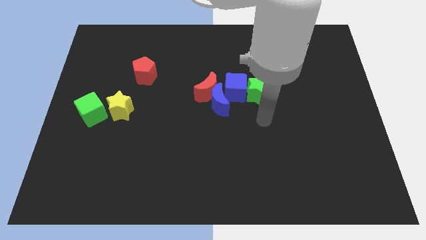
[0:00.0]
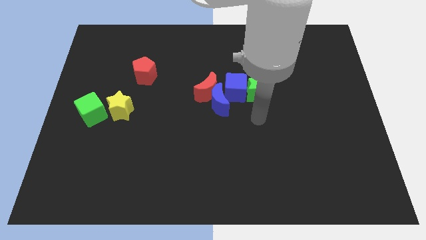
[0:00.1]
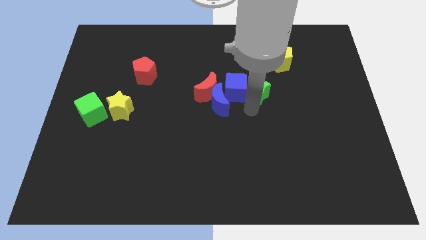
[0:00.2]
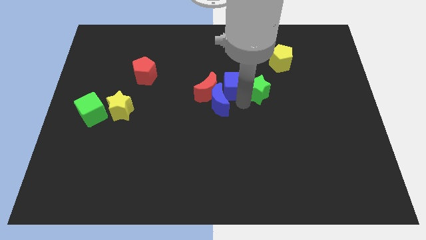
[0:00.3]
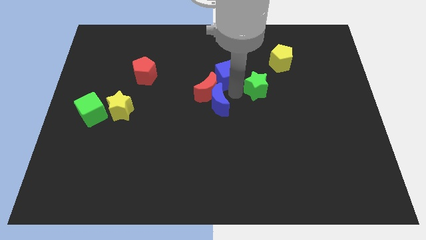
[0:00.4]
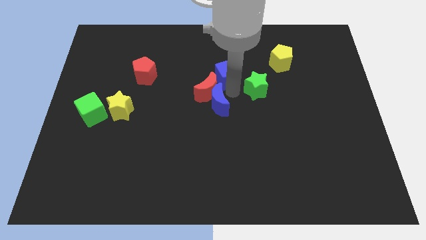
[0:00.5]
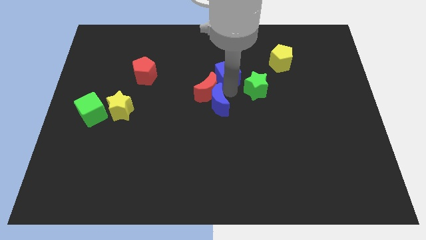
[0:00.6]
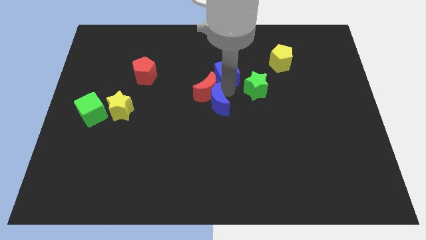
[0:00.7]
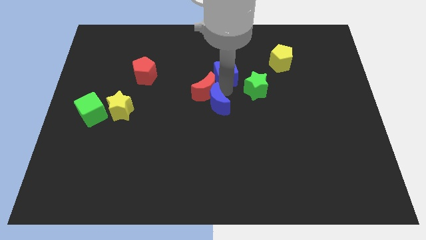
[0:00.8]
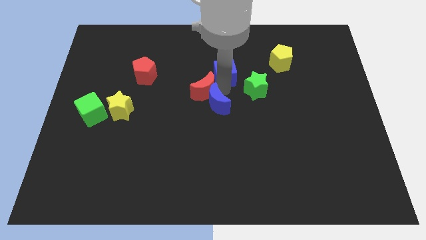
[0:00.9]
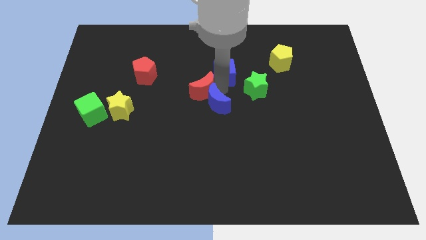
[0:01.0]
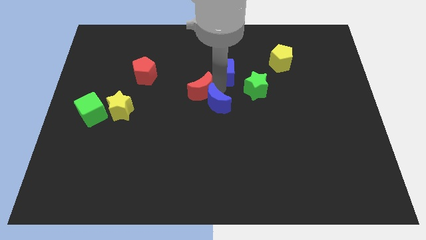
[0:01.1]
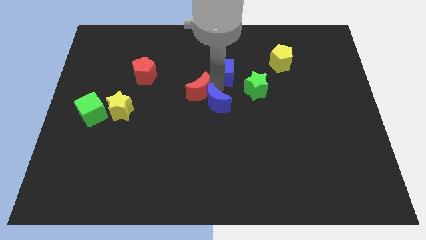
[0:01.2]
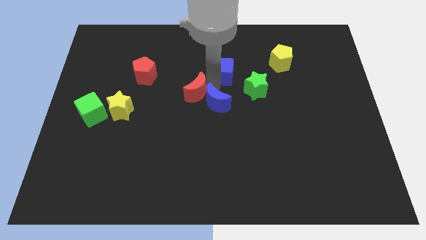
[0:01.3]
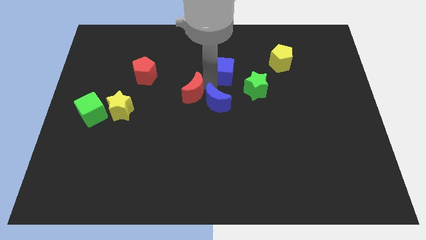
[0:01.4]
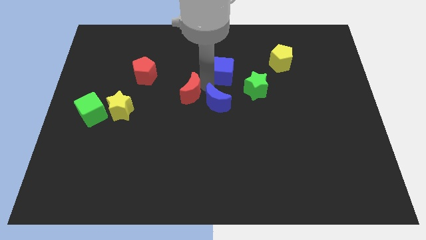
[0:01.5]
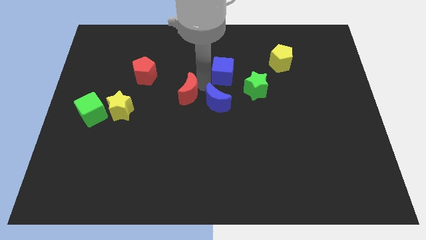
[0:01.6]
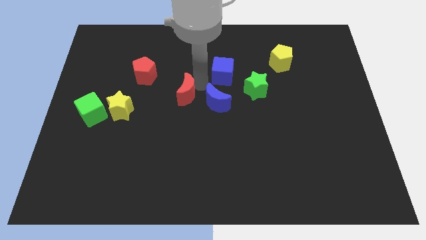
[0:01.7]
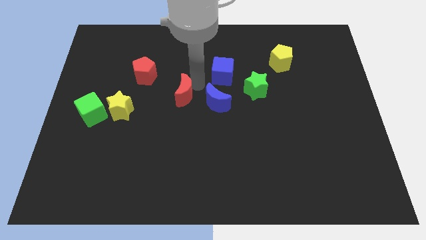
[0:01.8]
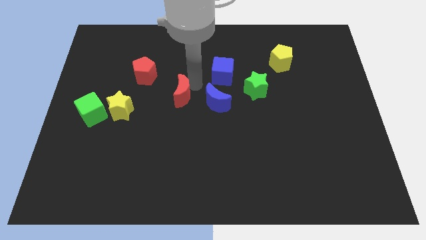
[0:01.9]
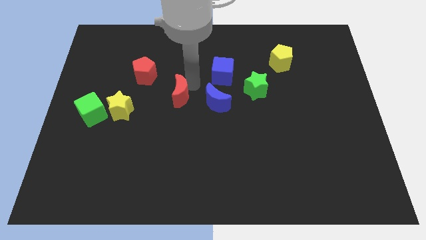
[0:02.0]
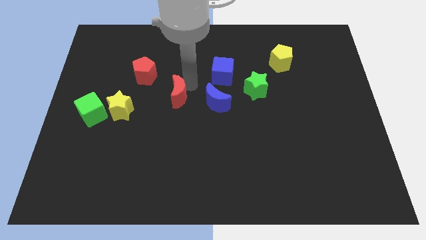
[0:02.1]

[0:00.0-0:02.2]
move the red moon away from the blue moon and blue cube

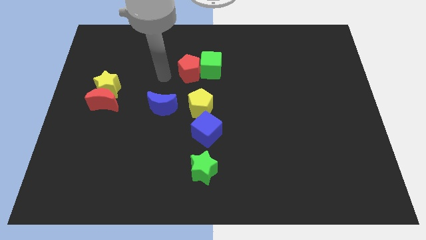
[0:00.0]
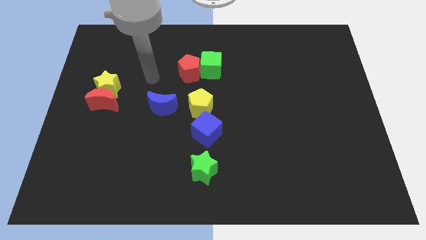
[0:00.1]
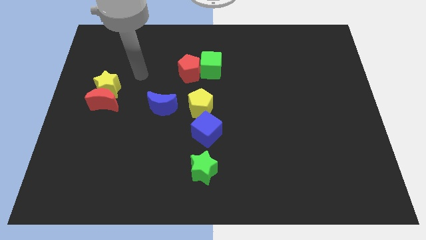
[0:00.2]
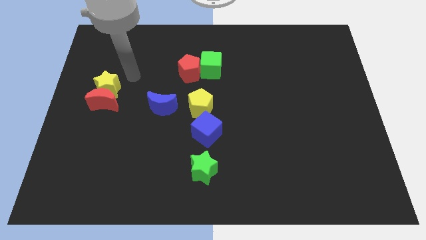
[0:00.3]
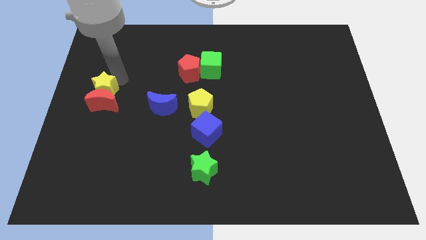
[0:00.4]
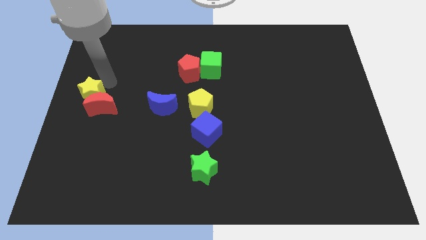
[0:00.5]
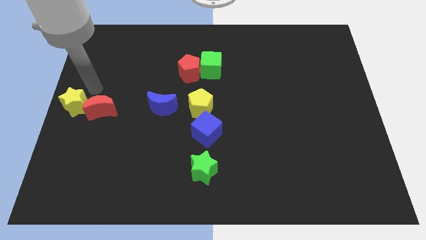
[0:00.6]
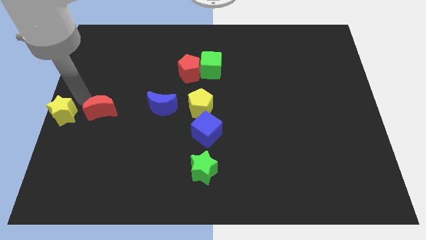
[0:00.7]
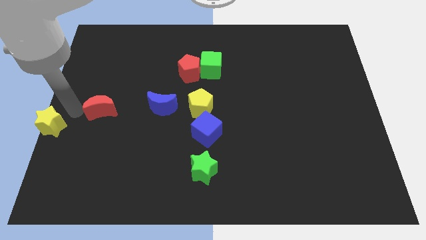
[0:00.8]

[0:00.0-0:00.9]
move the red moon away from the yellow star

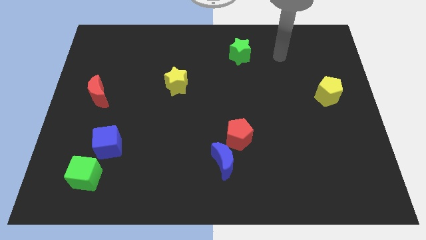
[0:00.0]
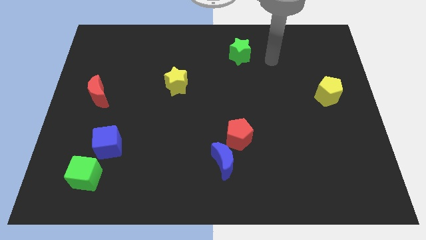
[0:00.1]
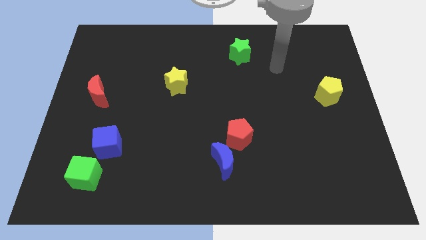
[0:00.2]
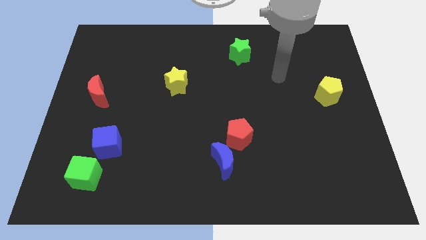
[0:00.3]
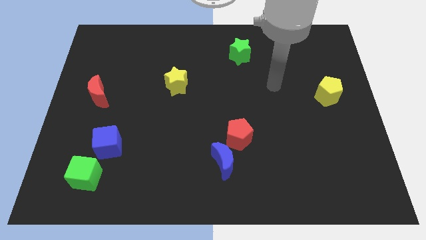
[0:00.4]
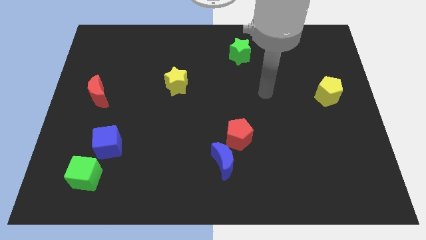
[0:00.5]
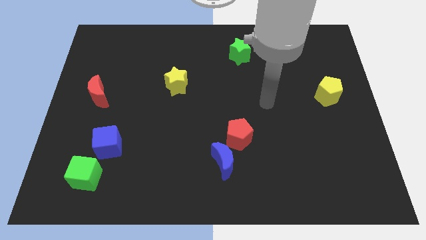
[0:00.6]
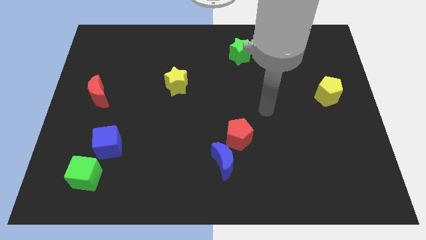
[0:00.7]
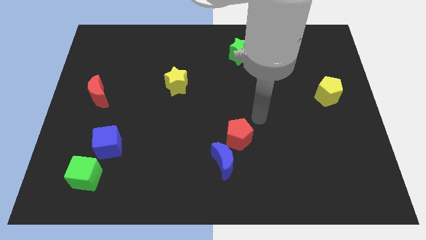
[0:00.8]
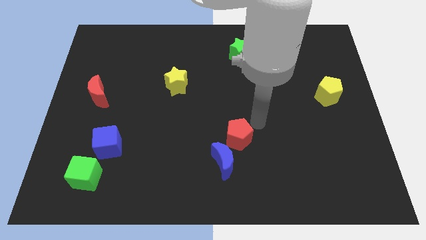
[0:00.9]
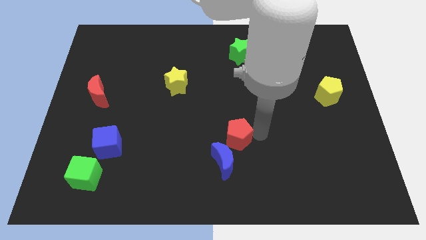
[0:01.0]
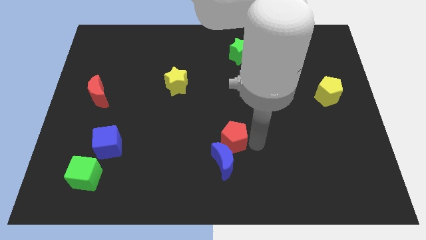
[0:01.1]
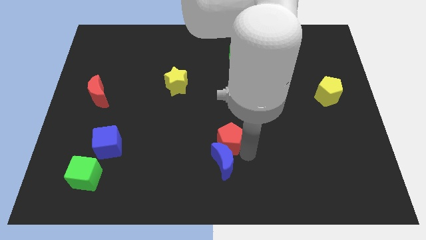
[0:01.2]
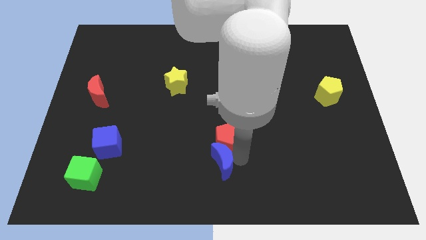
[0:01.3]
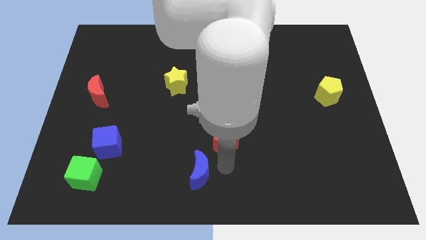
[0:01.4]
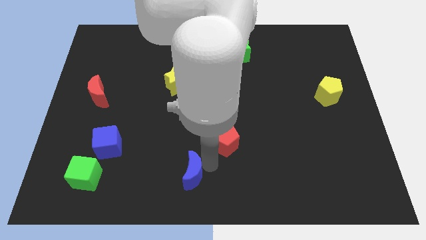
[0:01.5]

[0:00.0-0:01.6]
pull the red pentagon apart from the blue moon

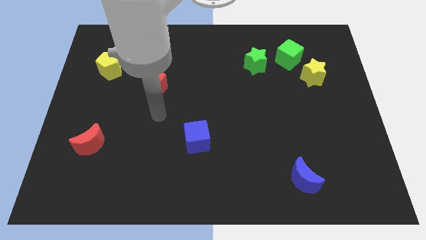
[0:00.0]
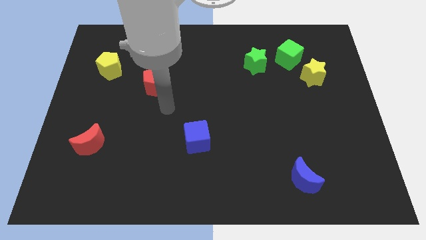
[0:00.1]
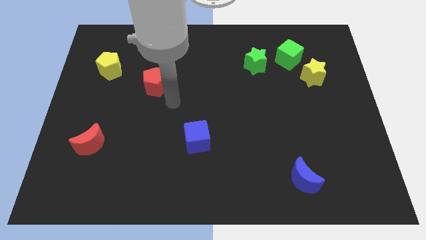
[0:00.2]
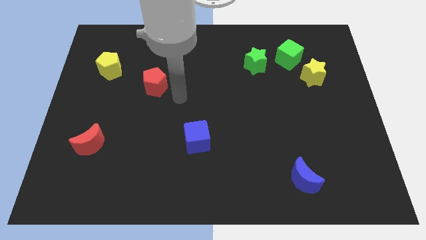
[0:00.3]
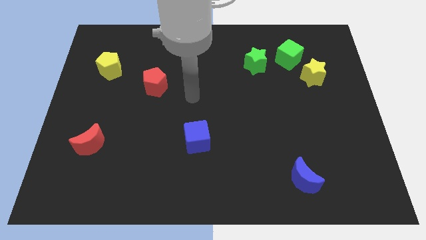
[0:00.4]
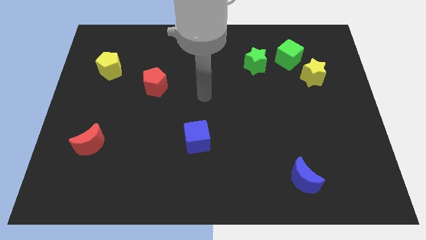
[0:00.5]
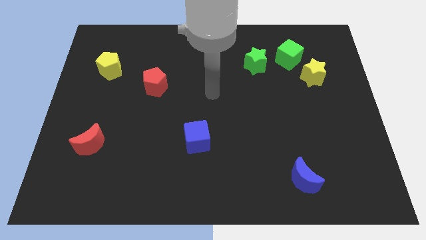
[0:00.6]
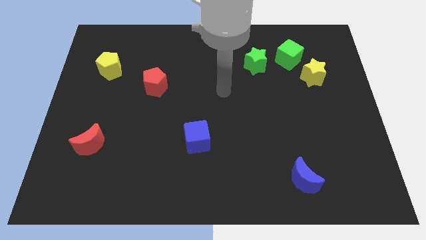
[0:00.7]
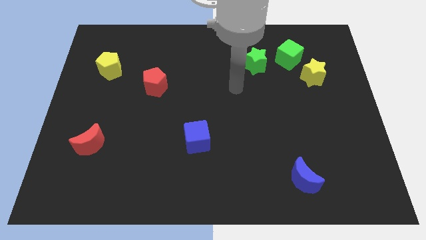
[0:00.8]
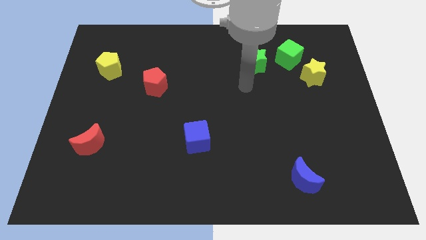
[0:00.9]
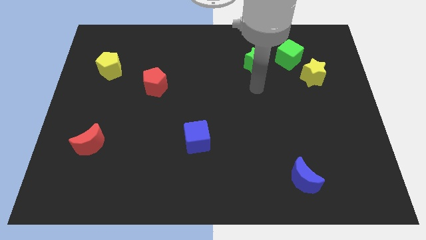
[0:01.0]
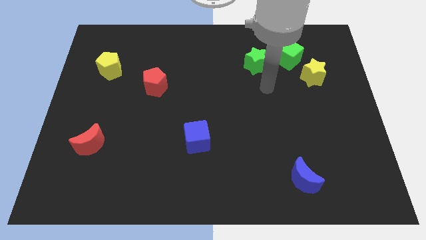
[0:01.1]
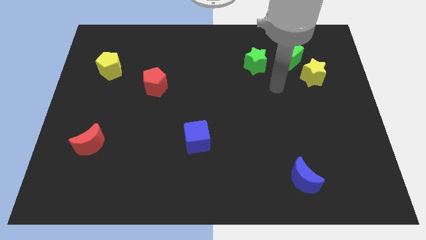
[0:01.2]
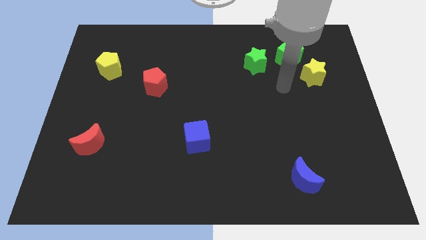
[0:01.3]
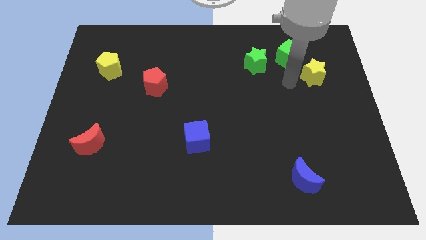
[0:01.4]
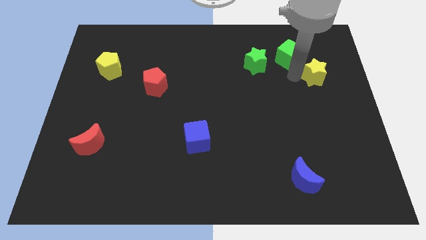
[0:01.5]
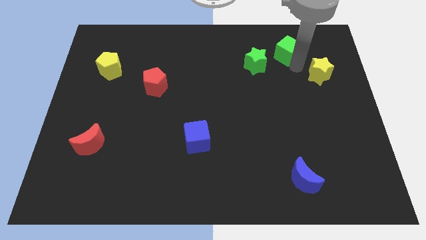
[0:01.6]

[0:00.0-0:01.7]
move the yellow star away from the green cube

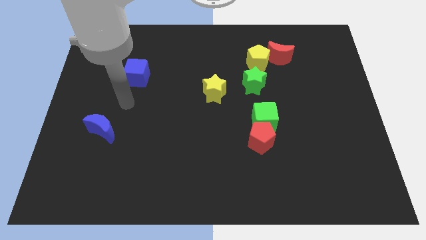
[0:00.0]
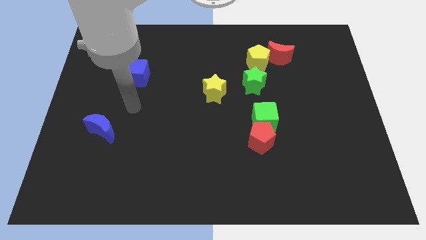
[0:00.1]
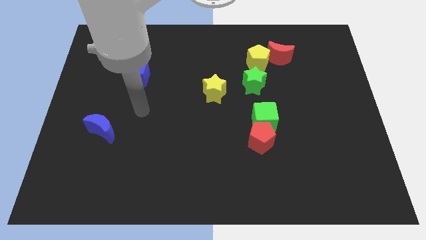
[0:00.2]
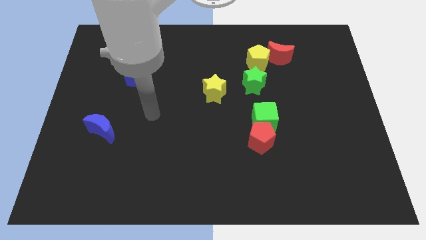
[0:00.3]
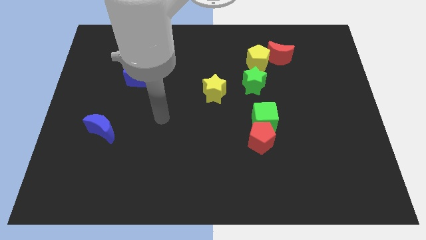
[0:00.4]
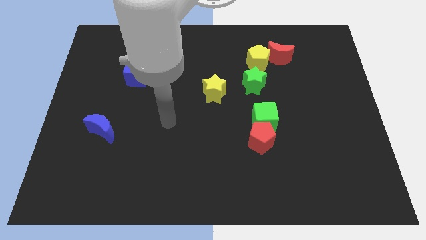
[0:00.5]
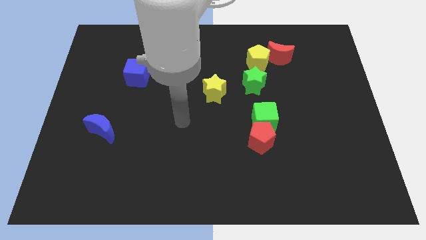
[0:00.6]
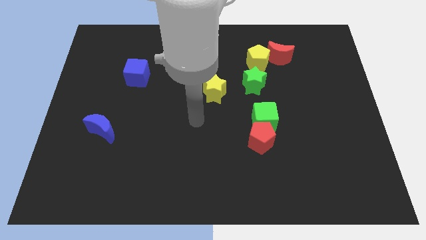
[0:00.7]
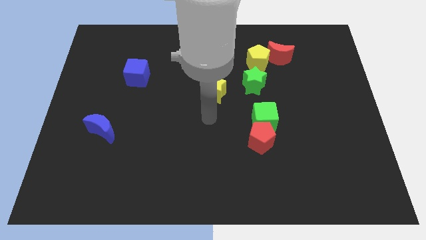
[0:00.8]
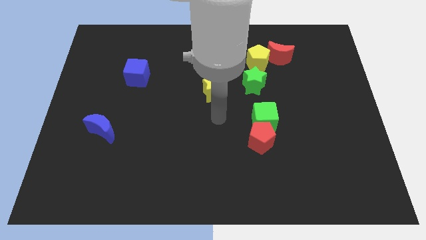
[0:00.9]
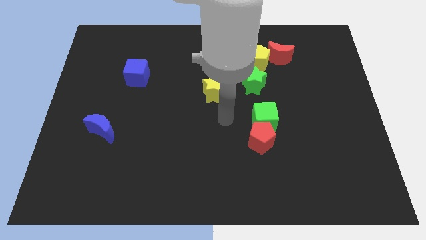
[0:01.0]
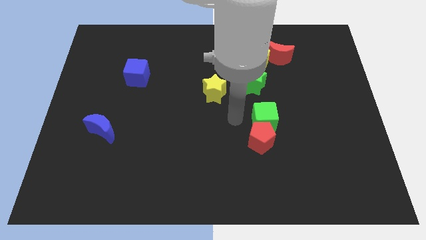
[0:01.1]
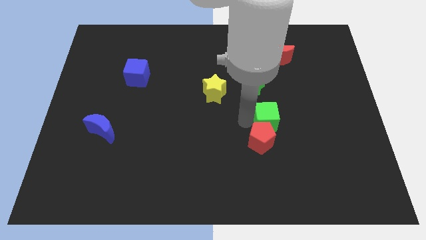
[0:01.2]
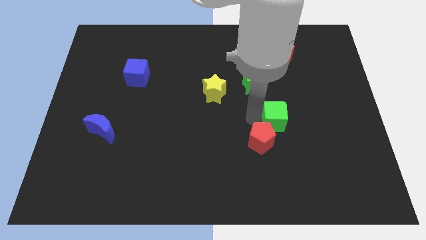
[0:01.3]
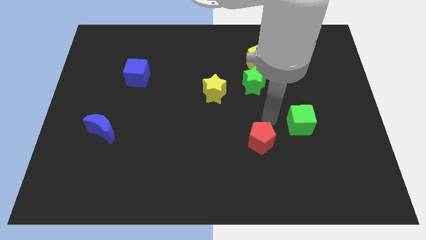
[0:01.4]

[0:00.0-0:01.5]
separate the red pentagon from the green cube

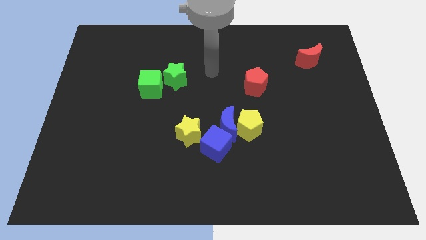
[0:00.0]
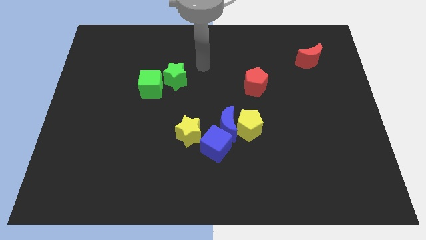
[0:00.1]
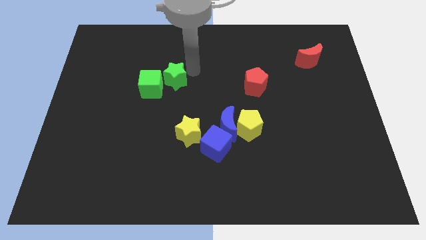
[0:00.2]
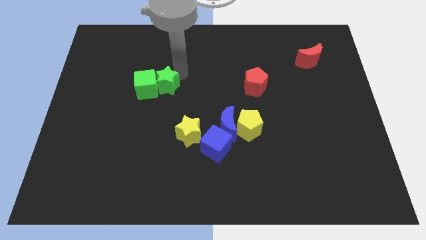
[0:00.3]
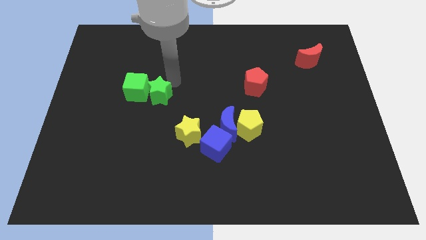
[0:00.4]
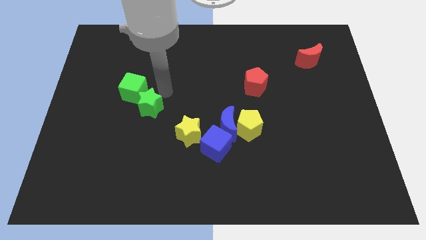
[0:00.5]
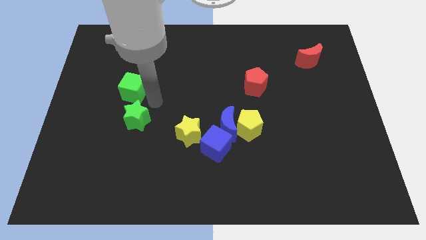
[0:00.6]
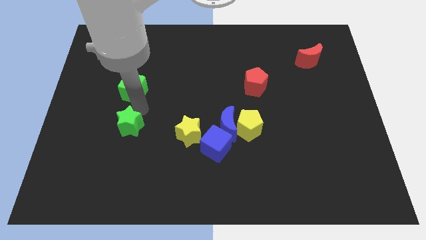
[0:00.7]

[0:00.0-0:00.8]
separate the green cube from the green star

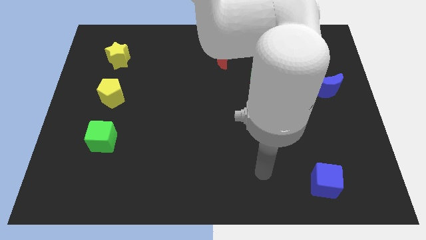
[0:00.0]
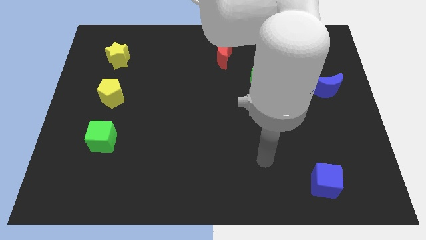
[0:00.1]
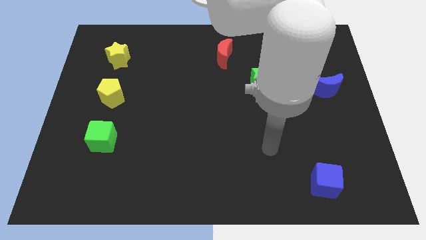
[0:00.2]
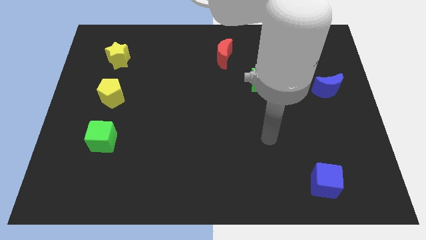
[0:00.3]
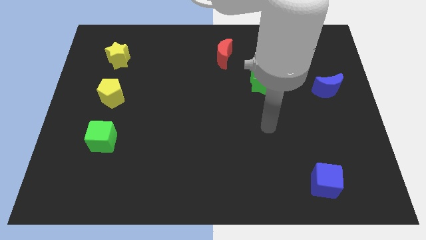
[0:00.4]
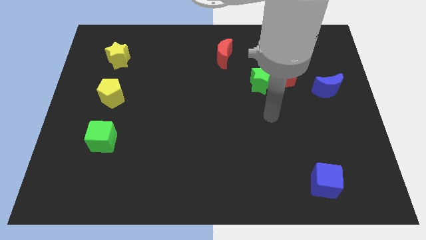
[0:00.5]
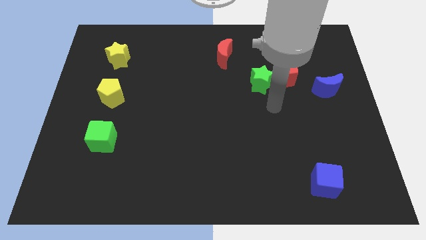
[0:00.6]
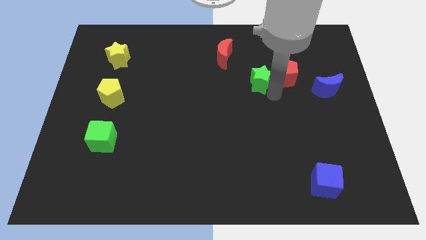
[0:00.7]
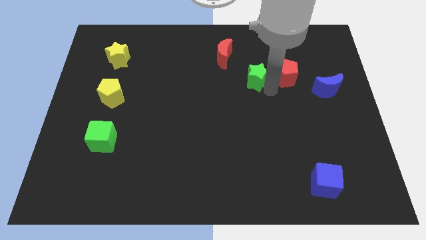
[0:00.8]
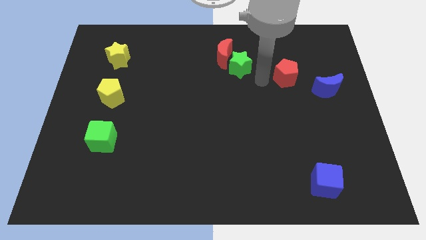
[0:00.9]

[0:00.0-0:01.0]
move the red pentagon away from the green star
